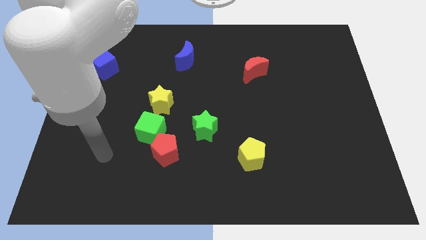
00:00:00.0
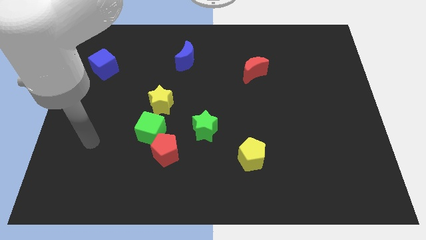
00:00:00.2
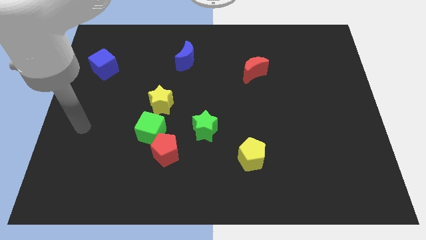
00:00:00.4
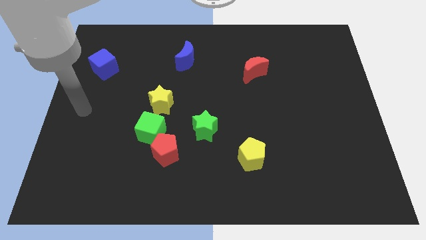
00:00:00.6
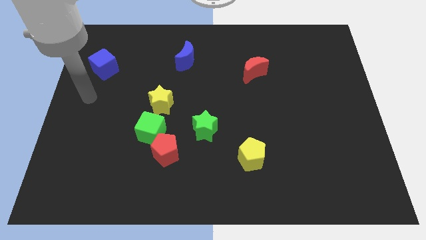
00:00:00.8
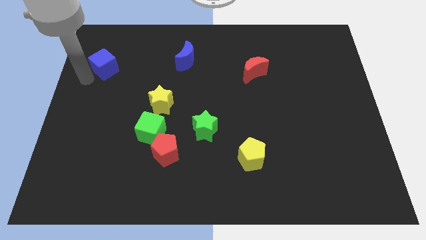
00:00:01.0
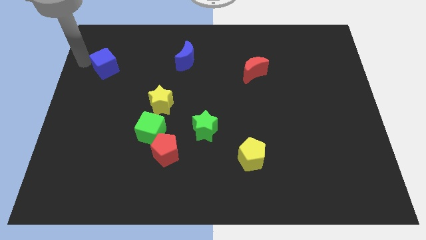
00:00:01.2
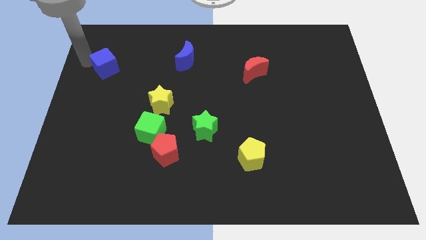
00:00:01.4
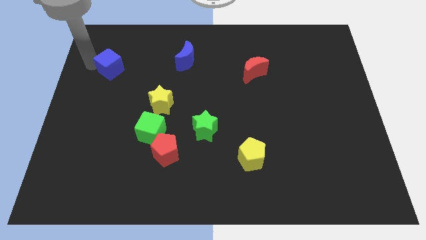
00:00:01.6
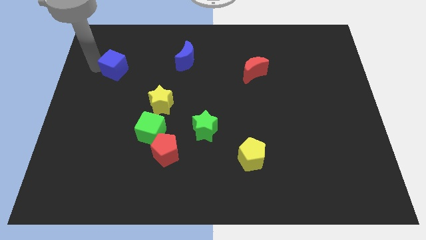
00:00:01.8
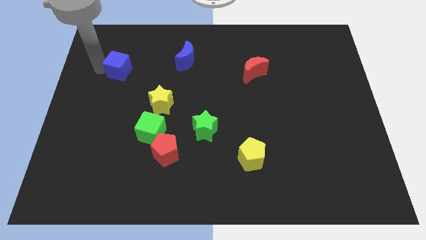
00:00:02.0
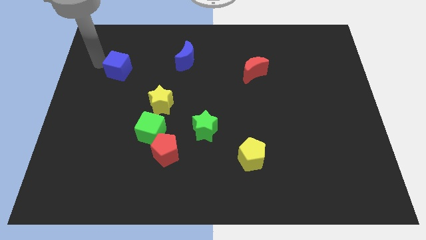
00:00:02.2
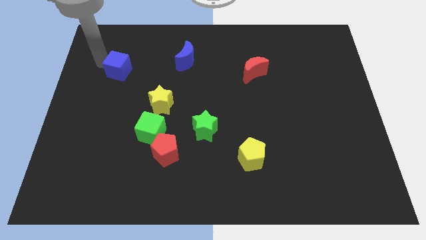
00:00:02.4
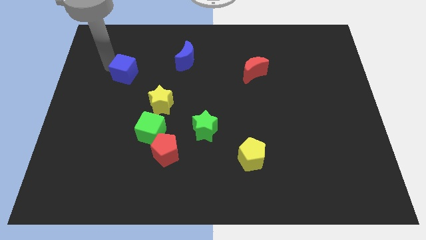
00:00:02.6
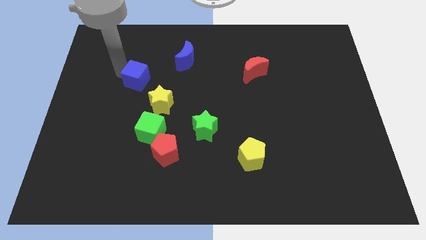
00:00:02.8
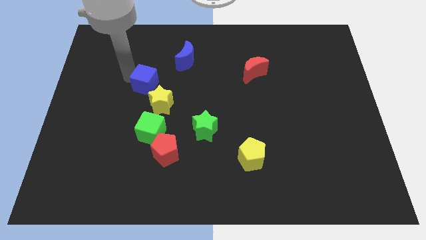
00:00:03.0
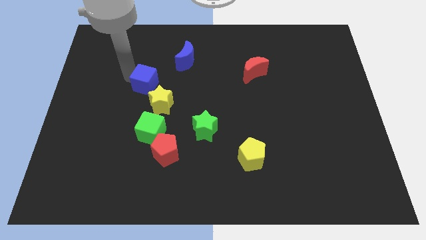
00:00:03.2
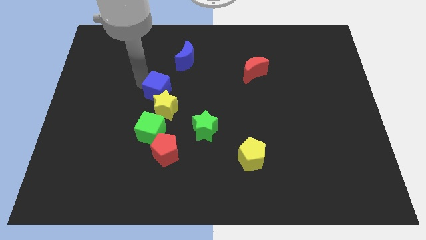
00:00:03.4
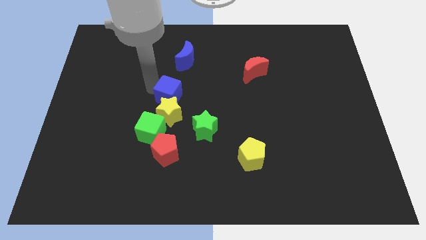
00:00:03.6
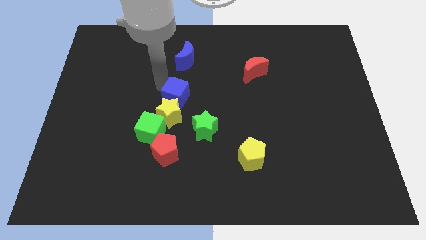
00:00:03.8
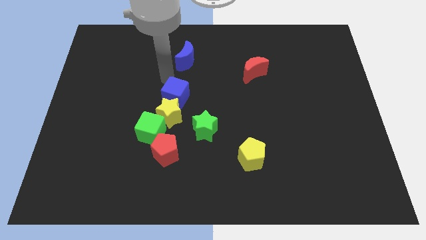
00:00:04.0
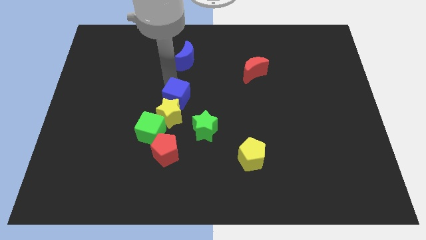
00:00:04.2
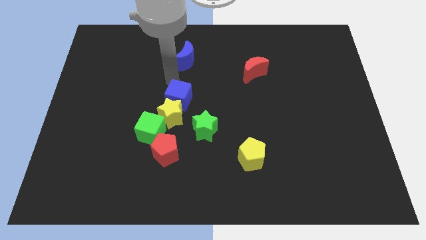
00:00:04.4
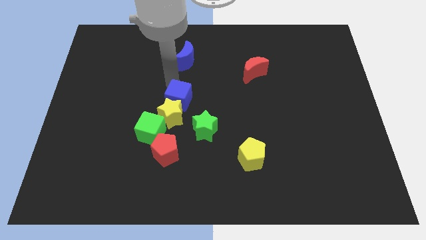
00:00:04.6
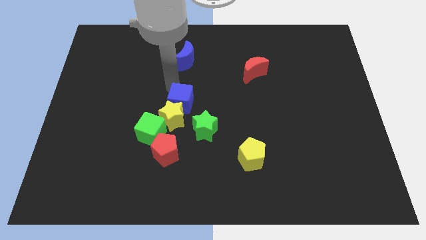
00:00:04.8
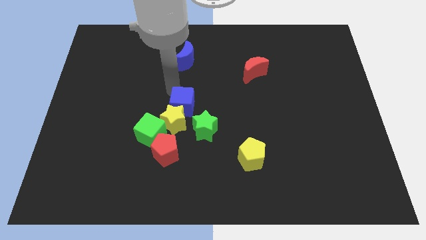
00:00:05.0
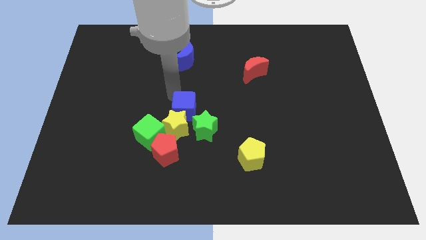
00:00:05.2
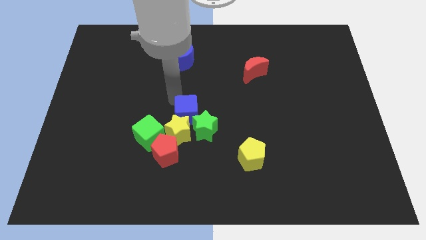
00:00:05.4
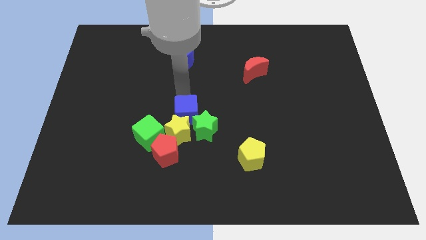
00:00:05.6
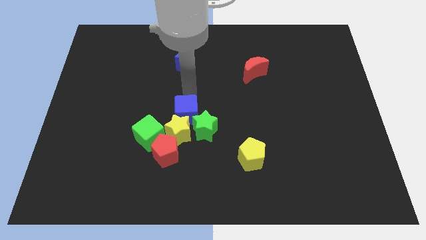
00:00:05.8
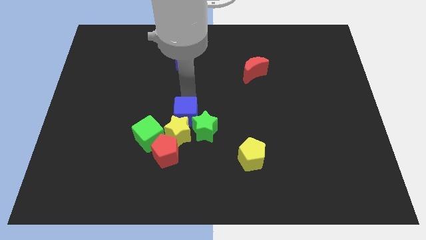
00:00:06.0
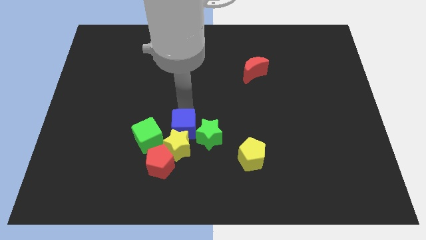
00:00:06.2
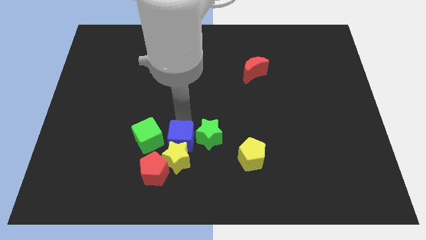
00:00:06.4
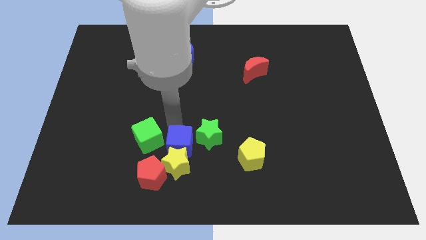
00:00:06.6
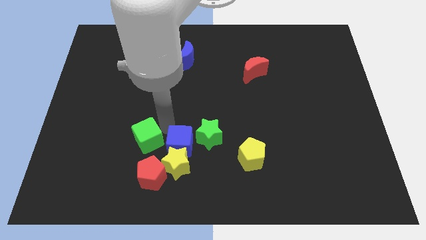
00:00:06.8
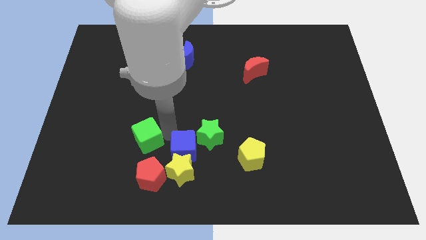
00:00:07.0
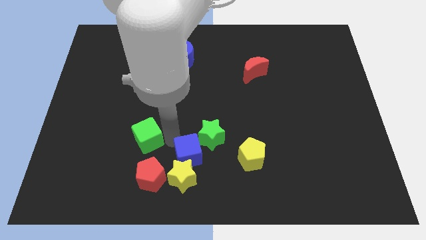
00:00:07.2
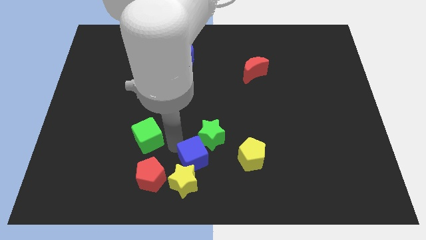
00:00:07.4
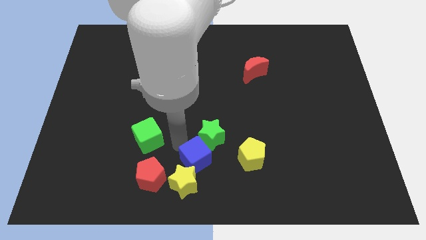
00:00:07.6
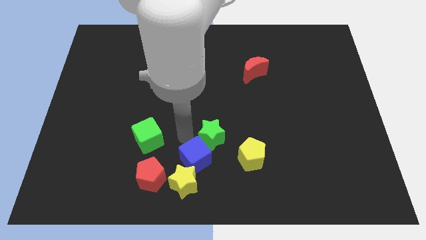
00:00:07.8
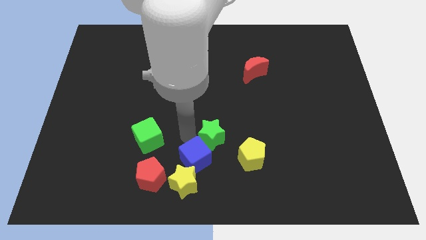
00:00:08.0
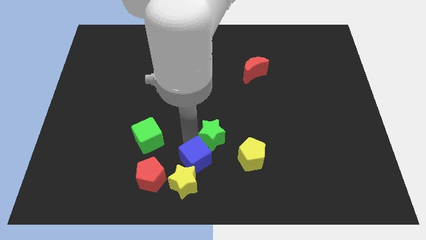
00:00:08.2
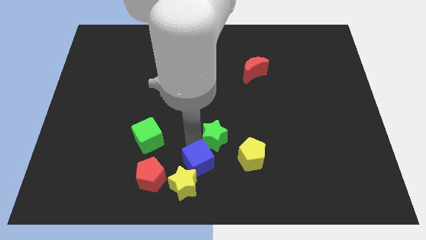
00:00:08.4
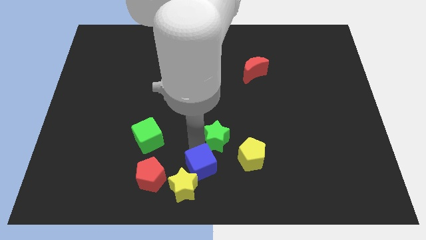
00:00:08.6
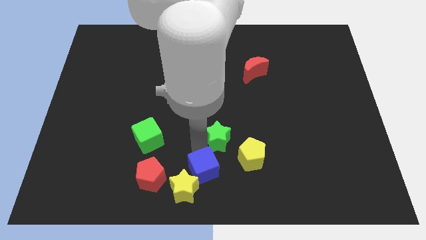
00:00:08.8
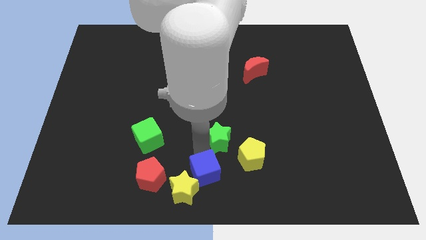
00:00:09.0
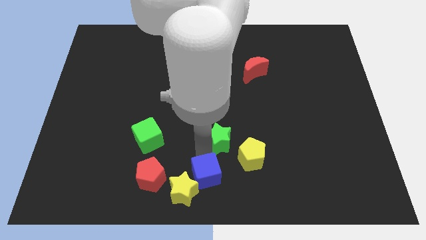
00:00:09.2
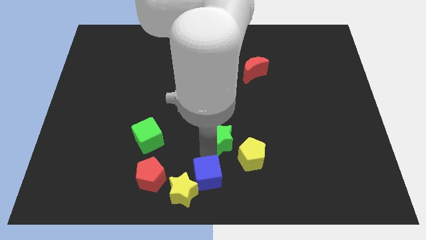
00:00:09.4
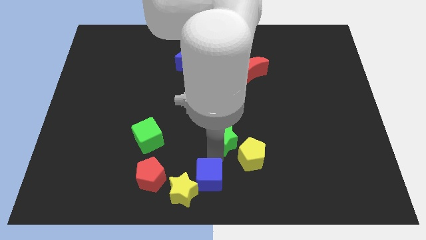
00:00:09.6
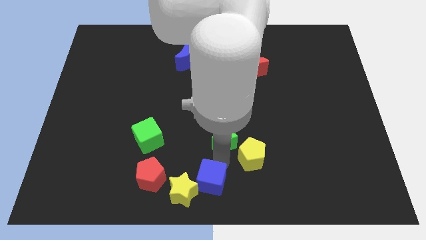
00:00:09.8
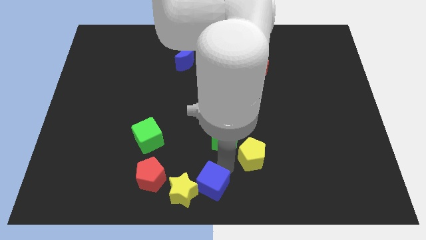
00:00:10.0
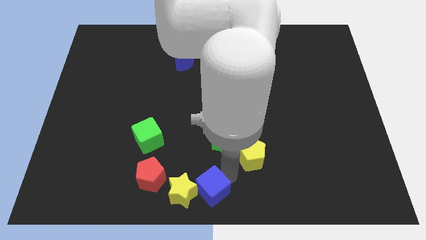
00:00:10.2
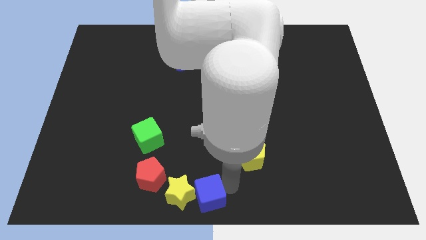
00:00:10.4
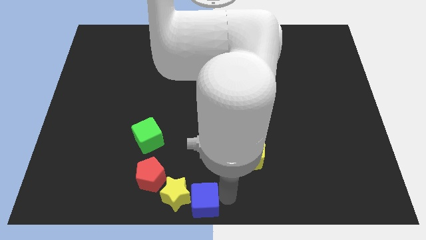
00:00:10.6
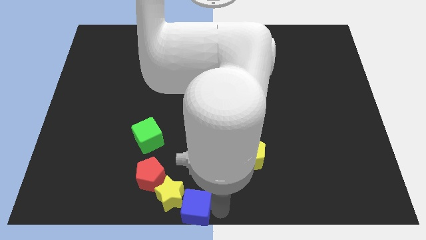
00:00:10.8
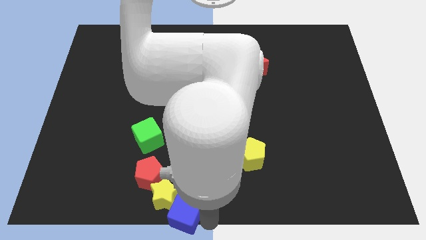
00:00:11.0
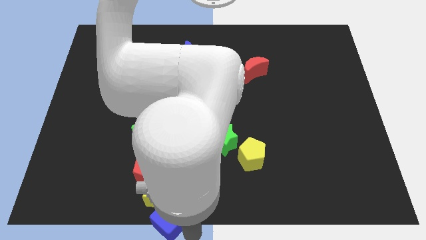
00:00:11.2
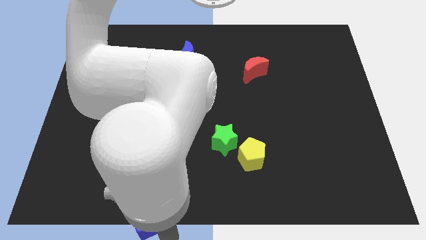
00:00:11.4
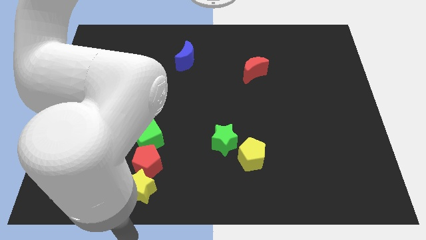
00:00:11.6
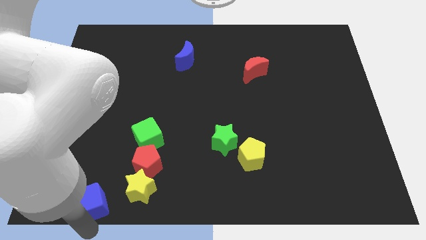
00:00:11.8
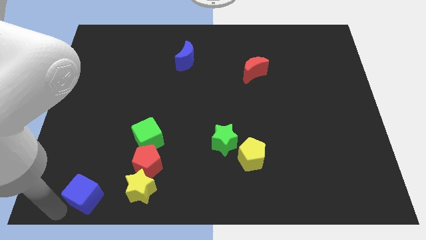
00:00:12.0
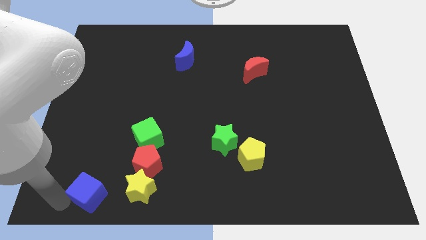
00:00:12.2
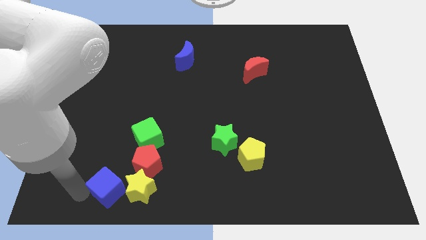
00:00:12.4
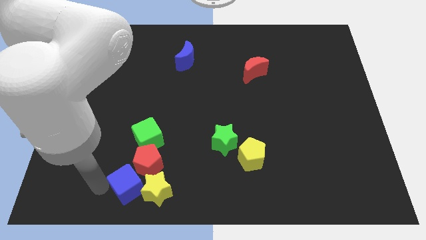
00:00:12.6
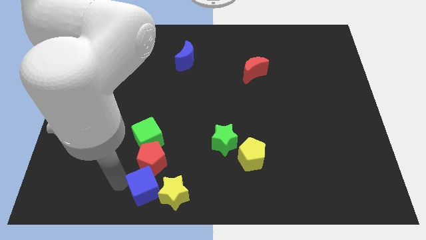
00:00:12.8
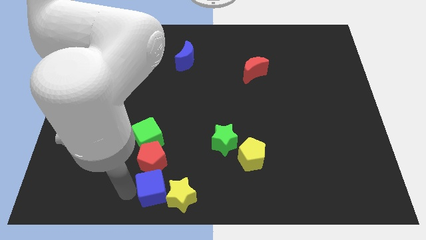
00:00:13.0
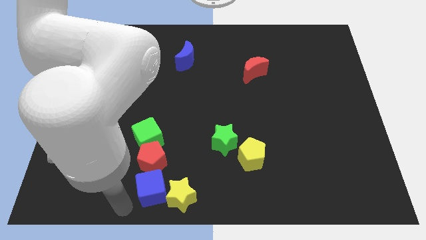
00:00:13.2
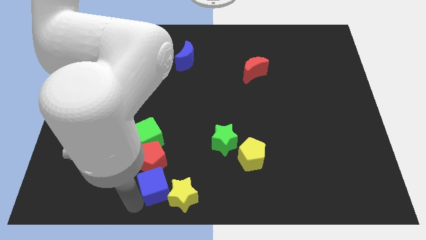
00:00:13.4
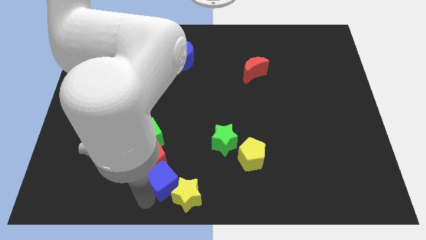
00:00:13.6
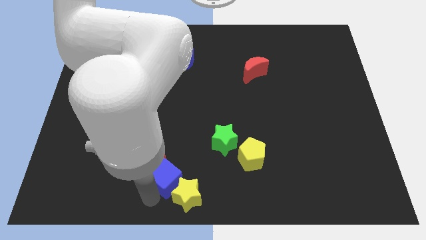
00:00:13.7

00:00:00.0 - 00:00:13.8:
move the blue cube to the right side of the red pentagon
